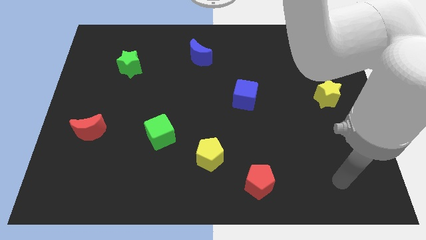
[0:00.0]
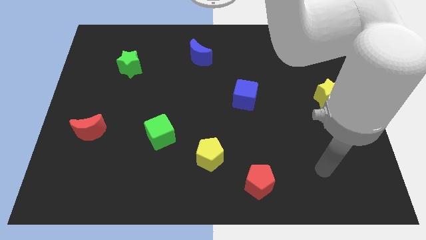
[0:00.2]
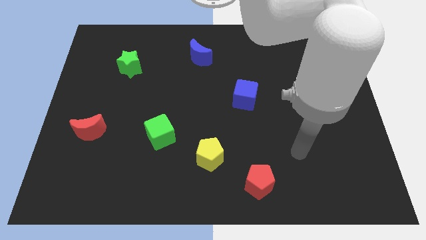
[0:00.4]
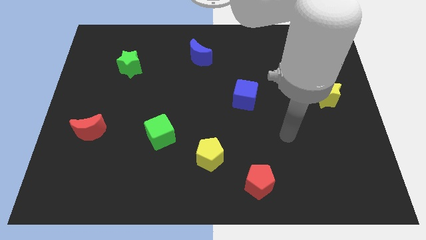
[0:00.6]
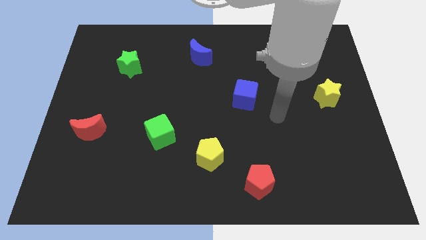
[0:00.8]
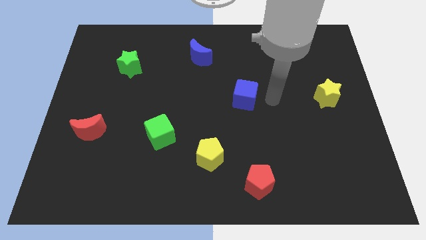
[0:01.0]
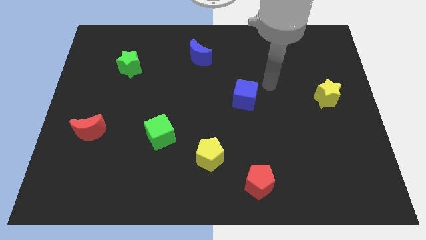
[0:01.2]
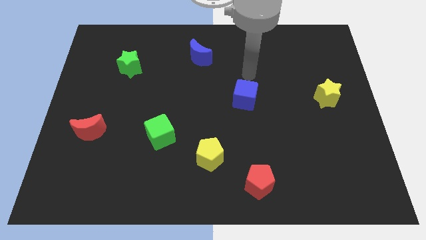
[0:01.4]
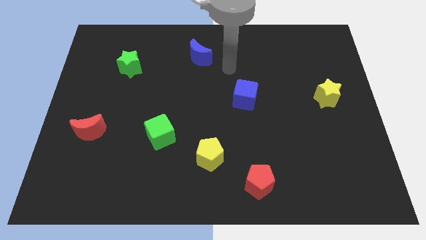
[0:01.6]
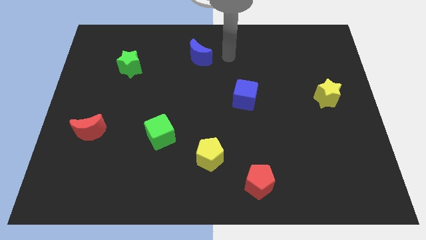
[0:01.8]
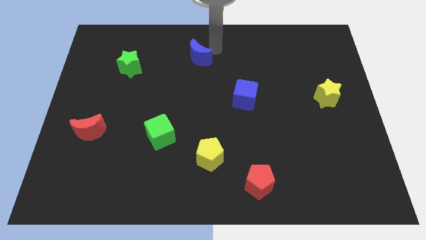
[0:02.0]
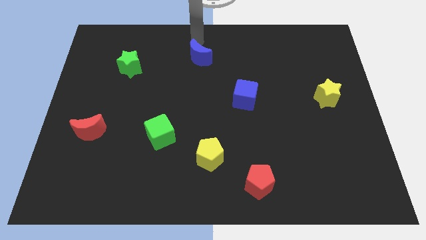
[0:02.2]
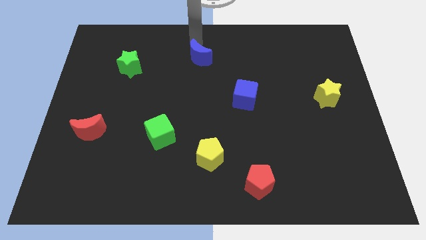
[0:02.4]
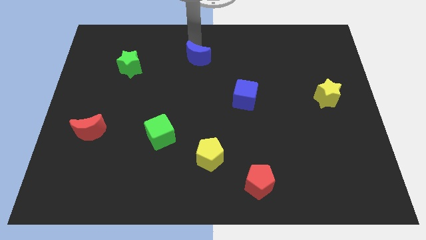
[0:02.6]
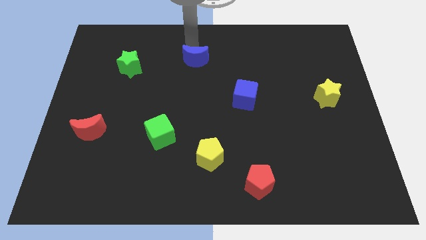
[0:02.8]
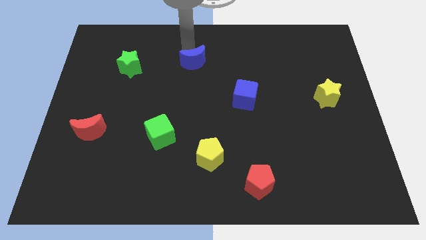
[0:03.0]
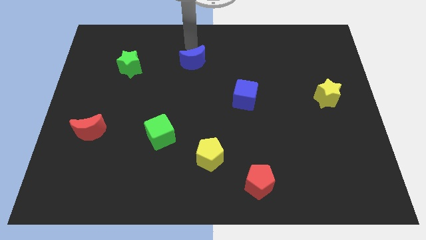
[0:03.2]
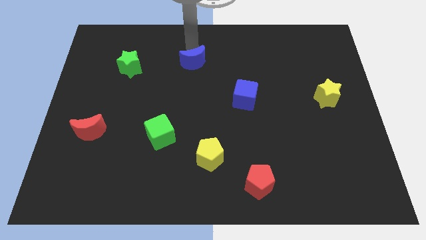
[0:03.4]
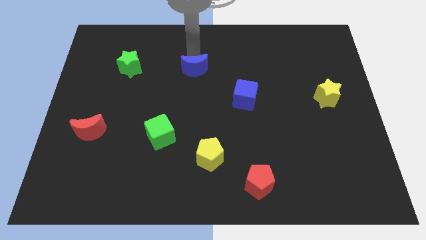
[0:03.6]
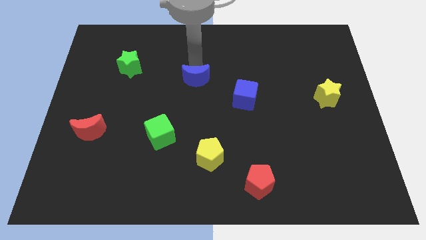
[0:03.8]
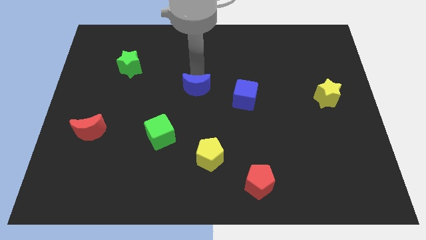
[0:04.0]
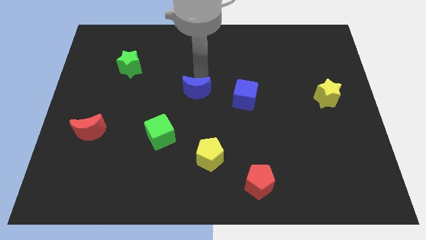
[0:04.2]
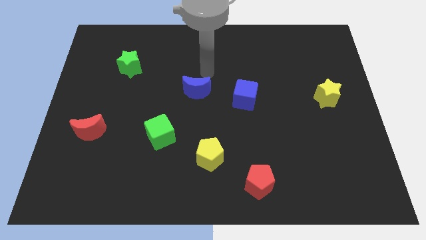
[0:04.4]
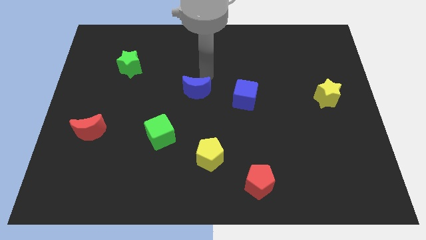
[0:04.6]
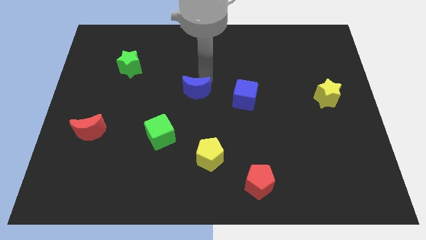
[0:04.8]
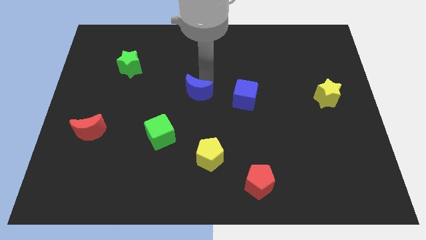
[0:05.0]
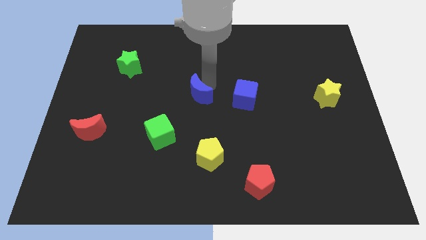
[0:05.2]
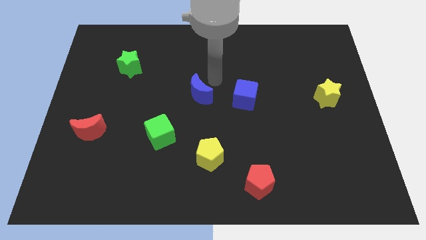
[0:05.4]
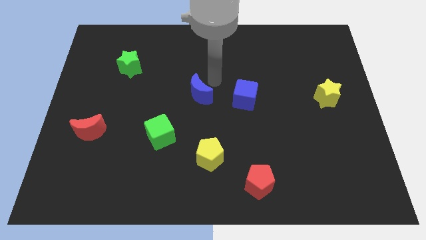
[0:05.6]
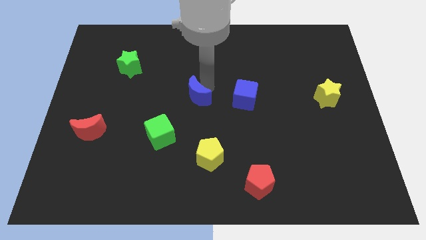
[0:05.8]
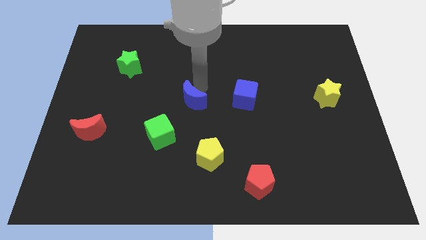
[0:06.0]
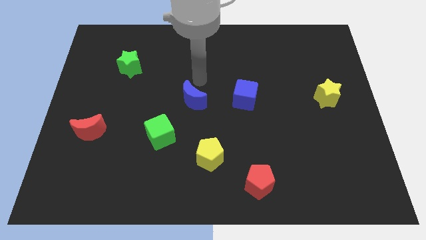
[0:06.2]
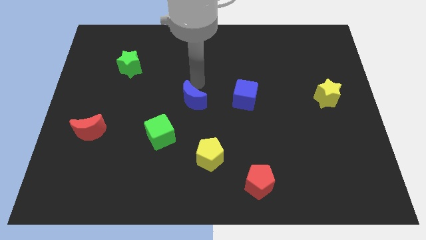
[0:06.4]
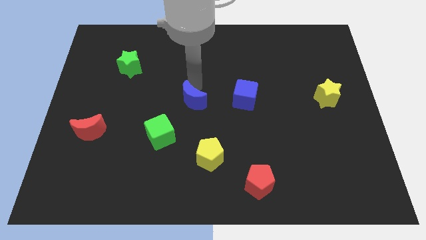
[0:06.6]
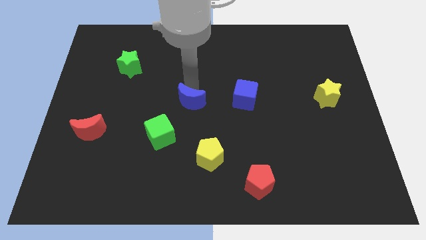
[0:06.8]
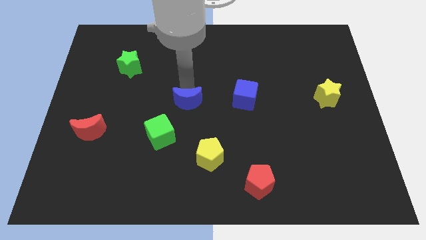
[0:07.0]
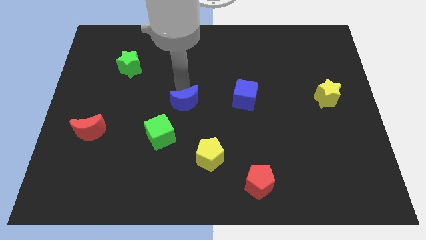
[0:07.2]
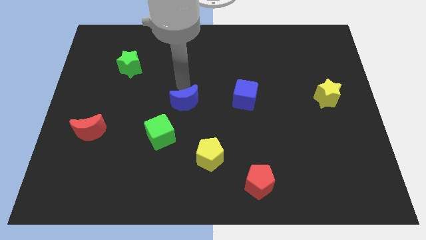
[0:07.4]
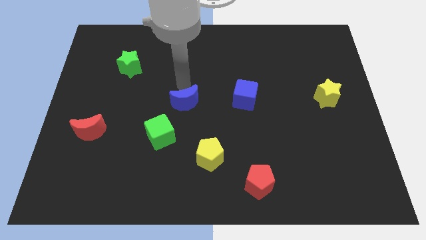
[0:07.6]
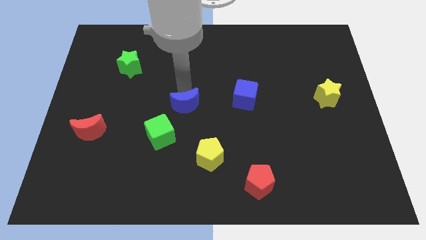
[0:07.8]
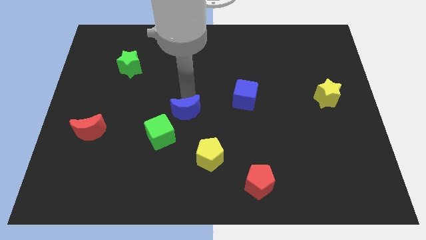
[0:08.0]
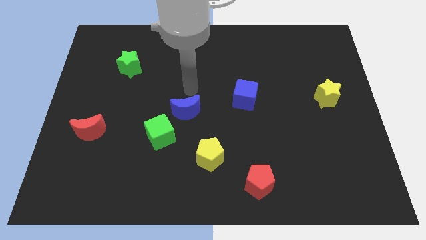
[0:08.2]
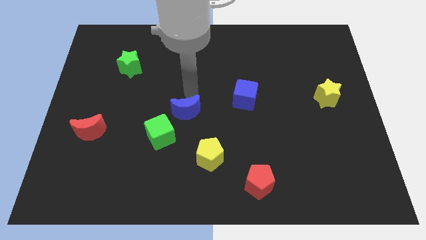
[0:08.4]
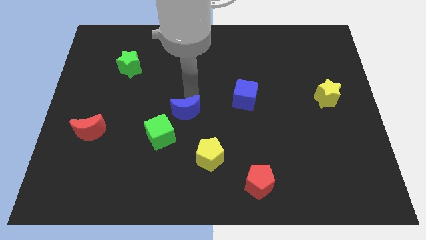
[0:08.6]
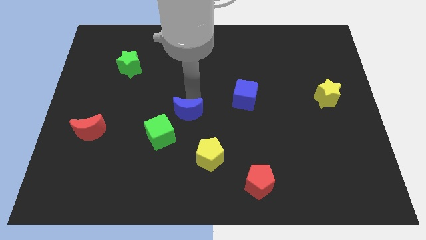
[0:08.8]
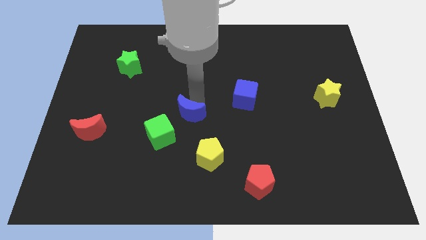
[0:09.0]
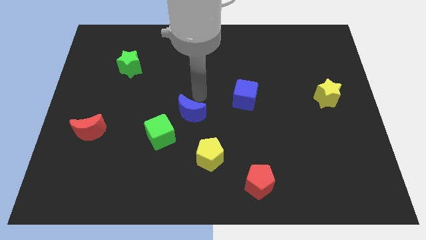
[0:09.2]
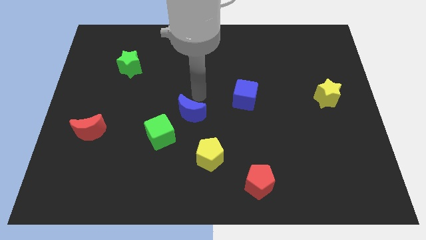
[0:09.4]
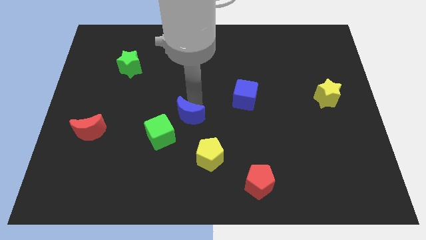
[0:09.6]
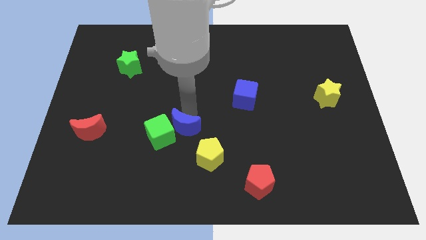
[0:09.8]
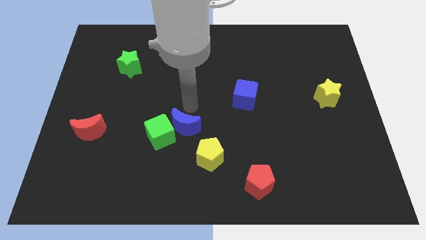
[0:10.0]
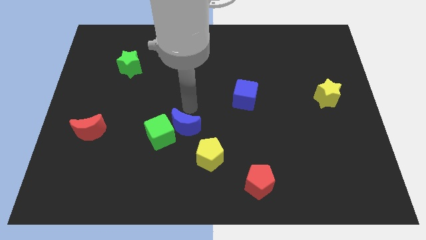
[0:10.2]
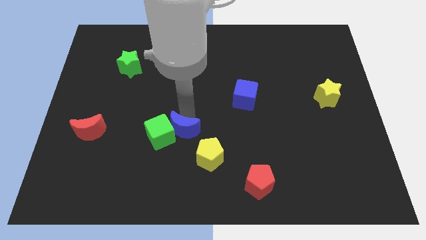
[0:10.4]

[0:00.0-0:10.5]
put the blue moon diagonally down and to the right of the green cube

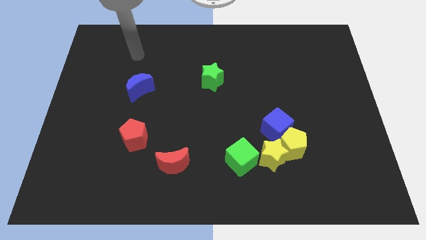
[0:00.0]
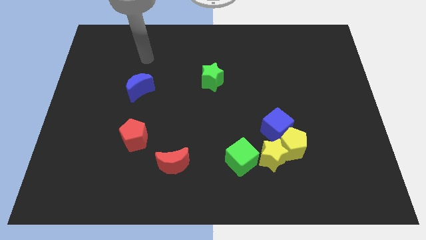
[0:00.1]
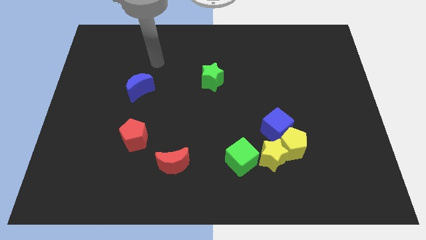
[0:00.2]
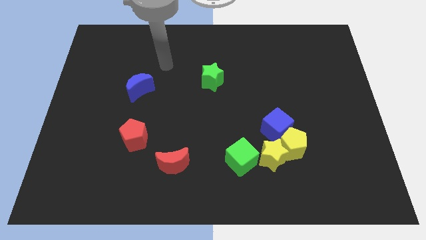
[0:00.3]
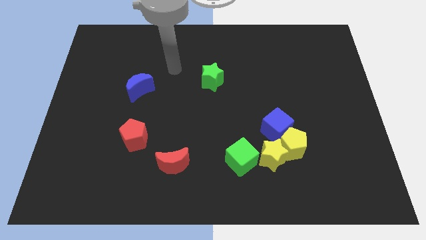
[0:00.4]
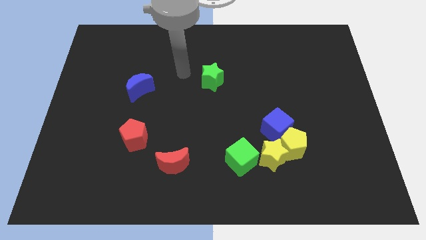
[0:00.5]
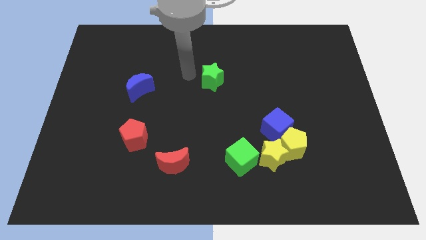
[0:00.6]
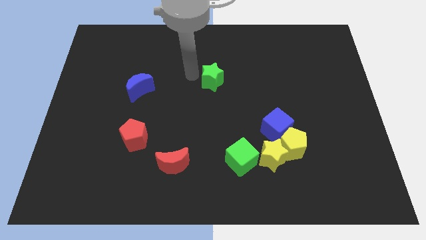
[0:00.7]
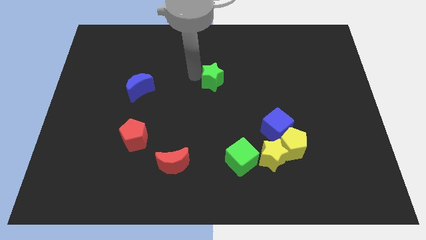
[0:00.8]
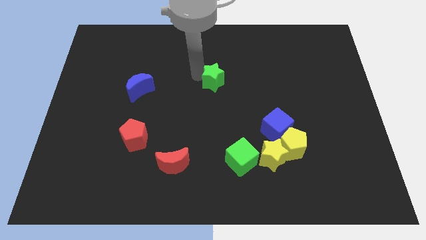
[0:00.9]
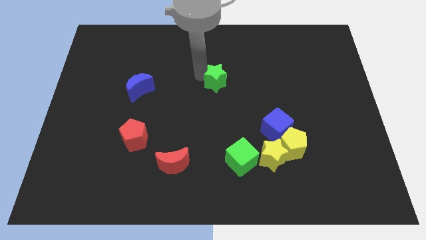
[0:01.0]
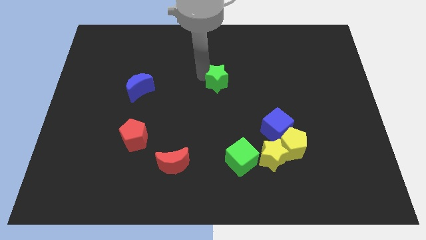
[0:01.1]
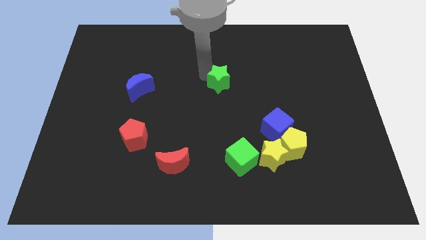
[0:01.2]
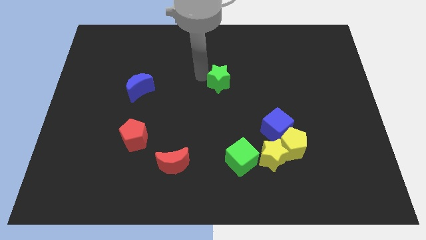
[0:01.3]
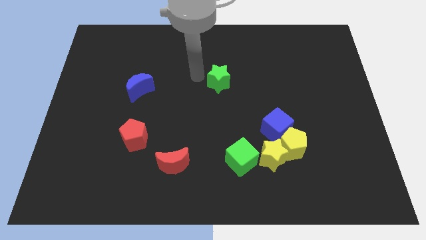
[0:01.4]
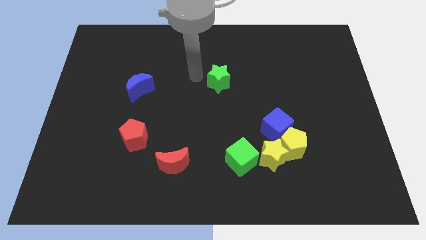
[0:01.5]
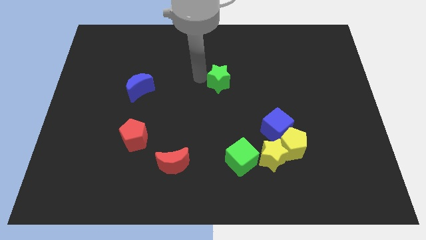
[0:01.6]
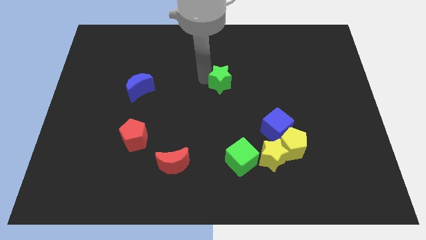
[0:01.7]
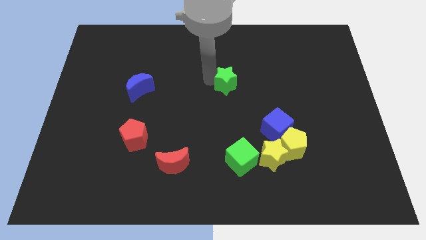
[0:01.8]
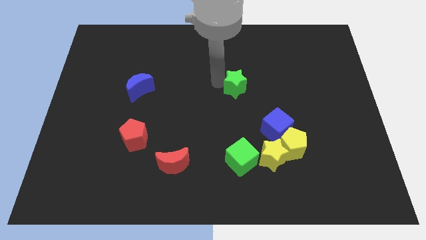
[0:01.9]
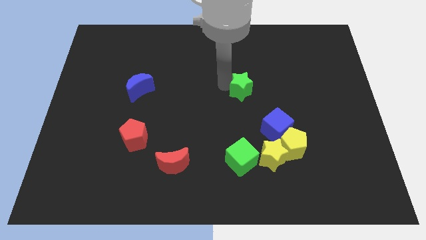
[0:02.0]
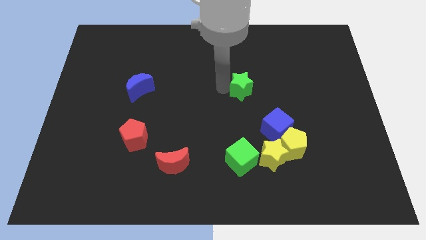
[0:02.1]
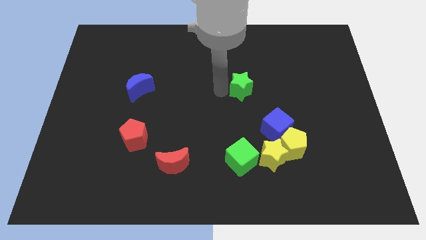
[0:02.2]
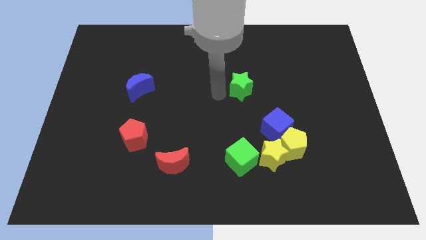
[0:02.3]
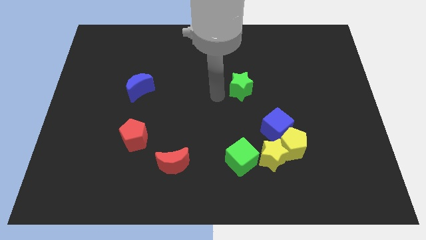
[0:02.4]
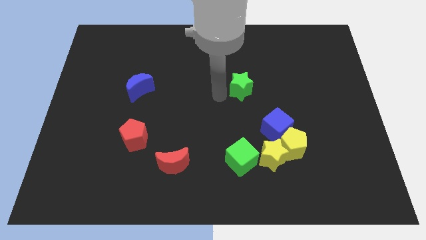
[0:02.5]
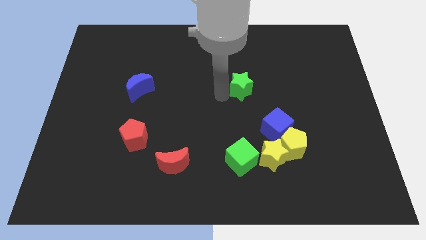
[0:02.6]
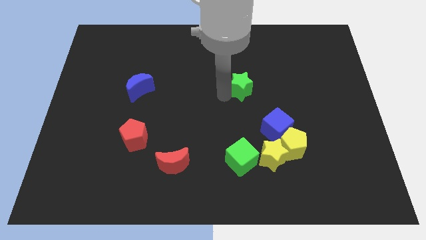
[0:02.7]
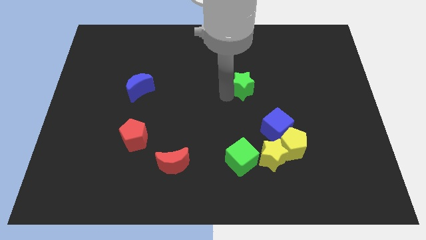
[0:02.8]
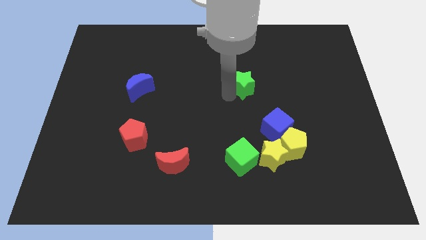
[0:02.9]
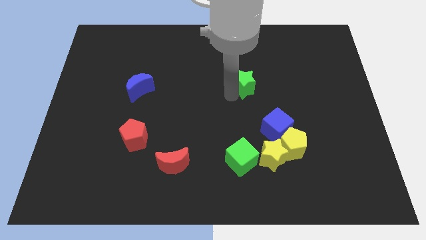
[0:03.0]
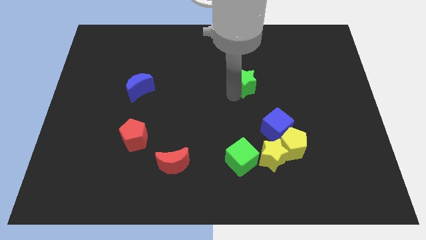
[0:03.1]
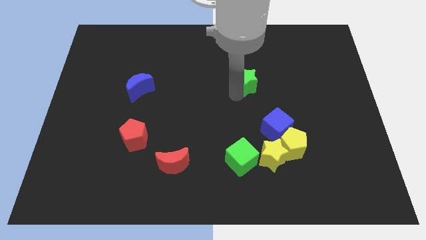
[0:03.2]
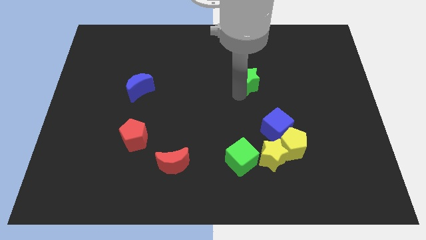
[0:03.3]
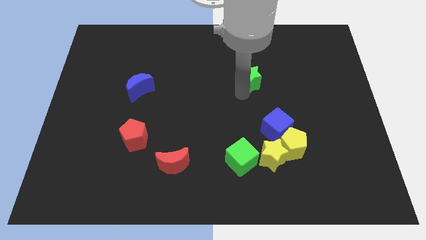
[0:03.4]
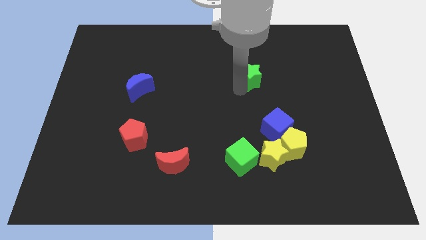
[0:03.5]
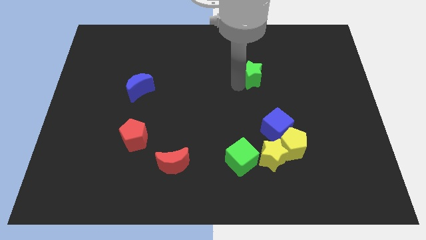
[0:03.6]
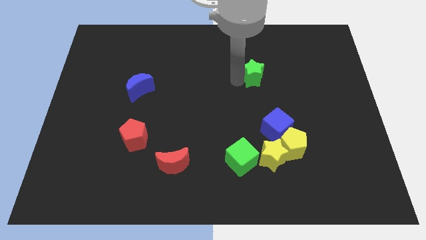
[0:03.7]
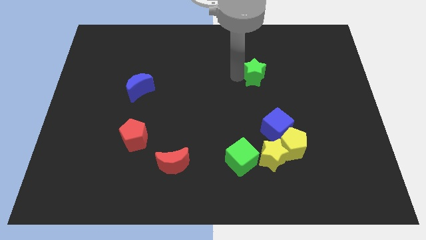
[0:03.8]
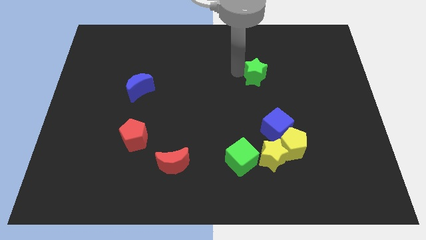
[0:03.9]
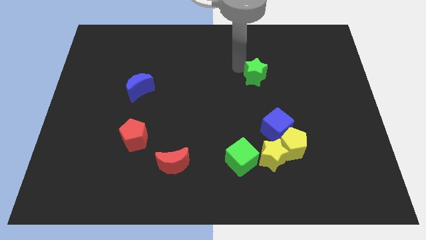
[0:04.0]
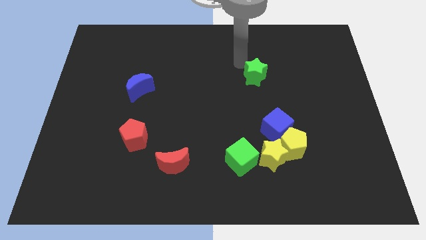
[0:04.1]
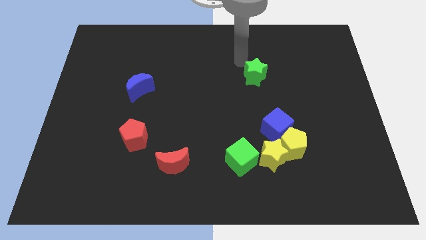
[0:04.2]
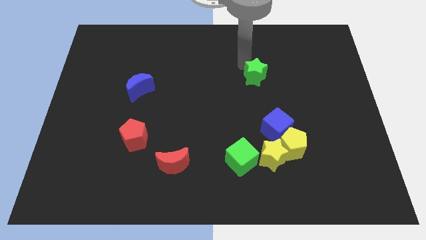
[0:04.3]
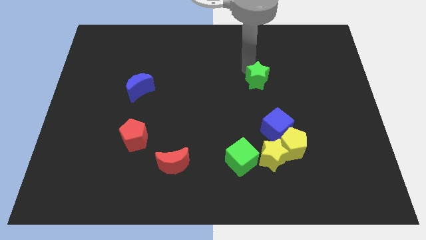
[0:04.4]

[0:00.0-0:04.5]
slide the green star to the top of the blue cube
